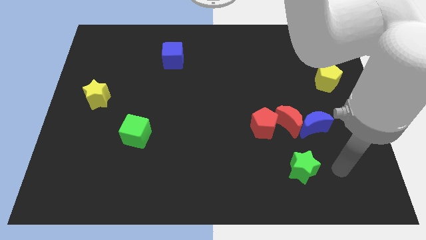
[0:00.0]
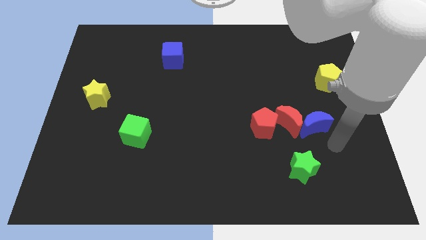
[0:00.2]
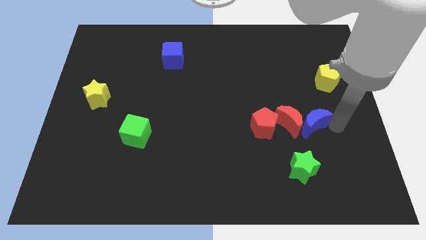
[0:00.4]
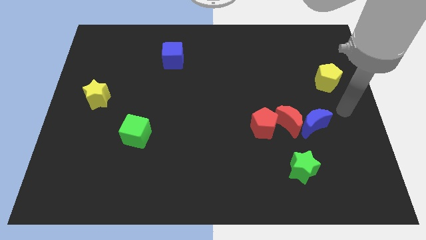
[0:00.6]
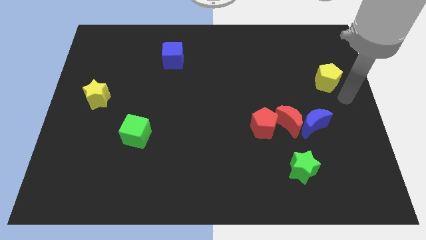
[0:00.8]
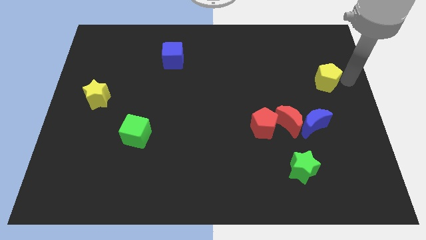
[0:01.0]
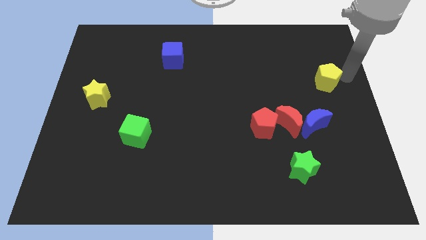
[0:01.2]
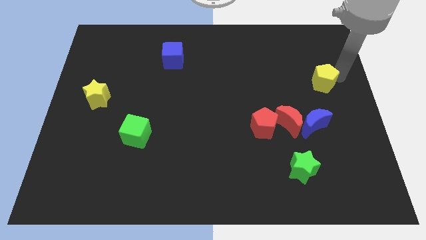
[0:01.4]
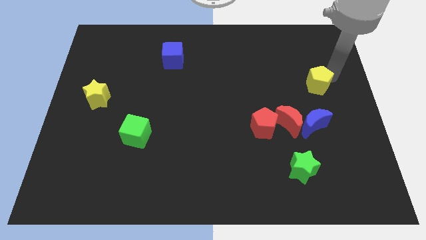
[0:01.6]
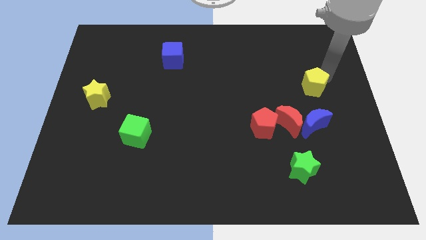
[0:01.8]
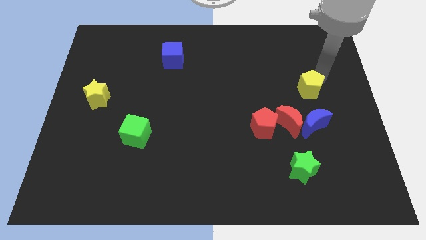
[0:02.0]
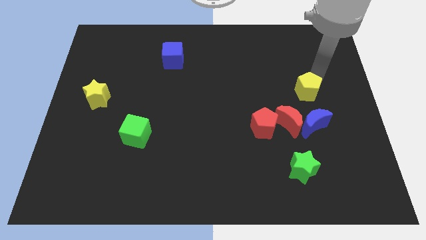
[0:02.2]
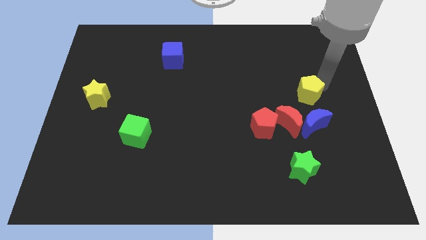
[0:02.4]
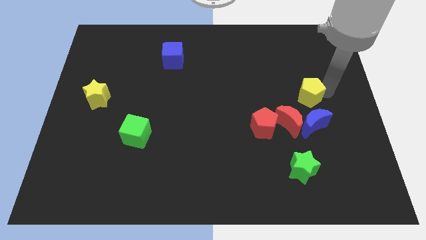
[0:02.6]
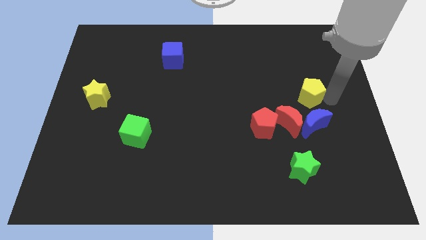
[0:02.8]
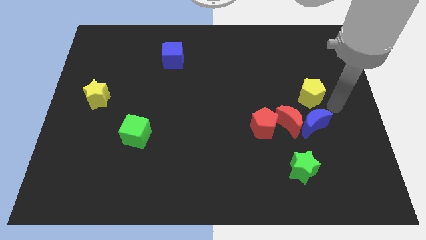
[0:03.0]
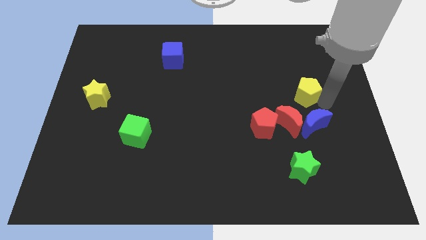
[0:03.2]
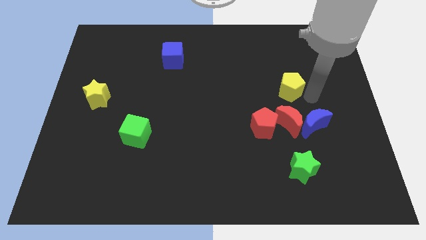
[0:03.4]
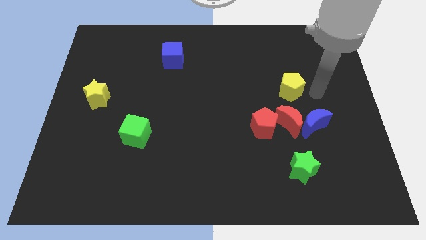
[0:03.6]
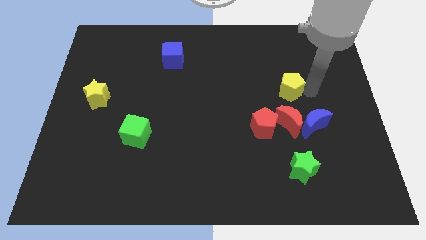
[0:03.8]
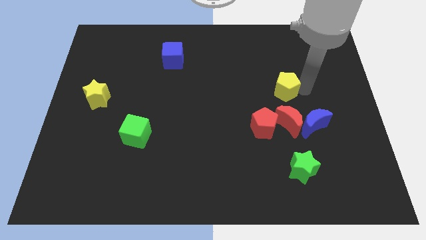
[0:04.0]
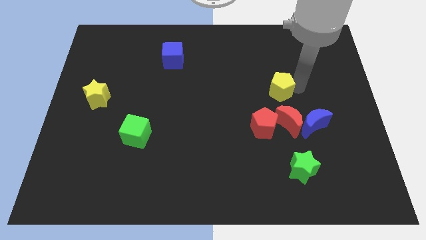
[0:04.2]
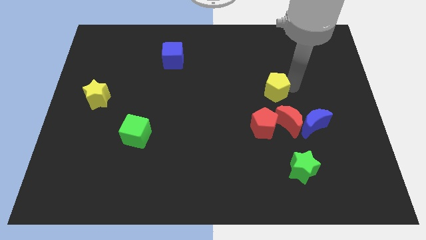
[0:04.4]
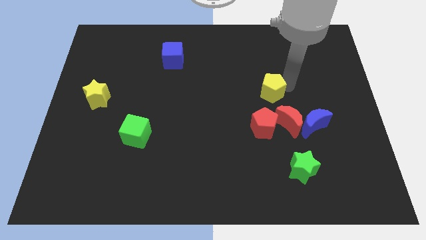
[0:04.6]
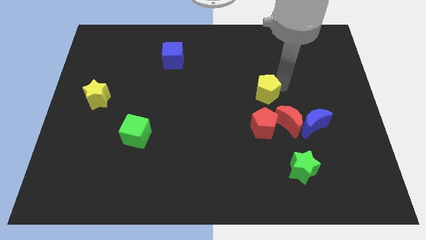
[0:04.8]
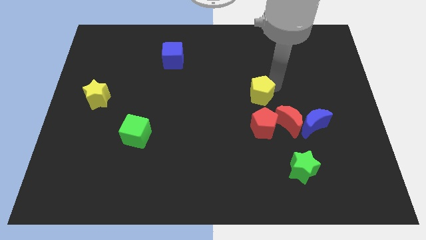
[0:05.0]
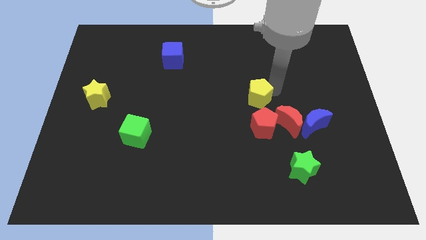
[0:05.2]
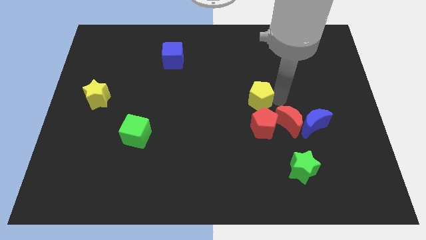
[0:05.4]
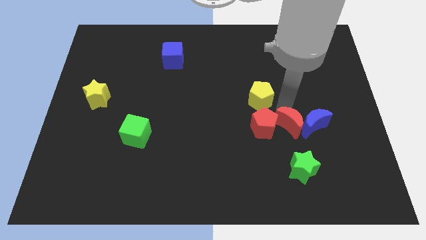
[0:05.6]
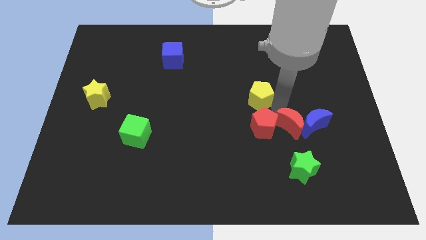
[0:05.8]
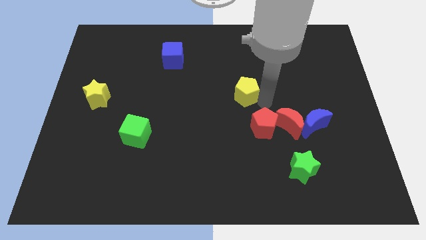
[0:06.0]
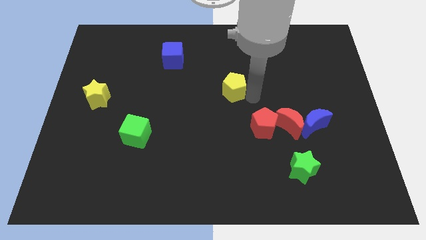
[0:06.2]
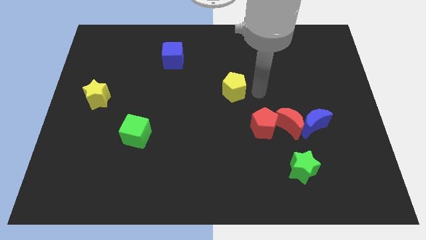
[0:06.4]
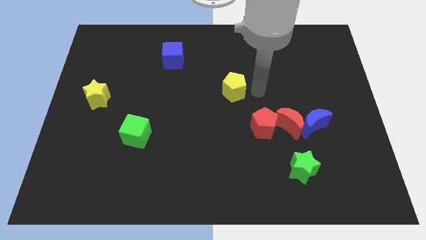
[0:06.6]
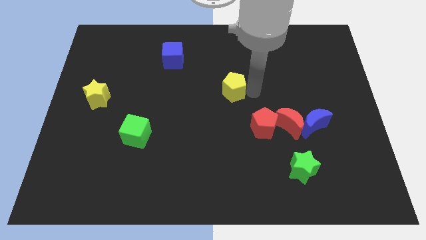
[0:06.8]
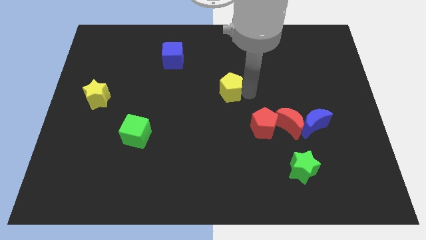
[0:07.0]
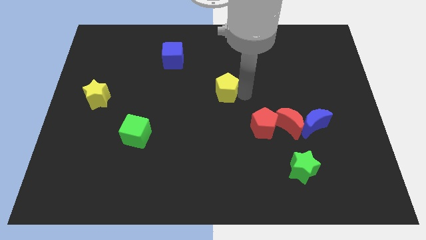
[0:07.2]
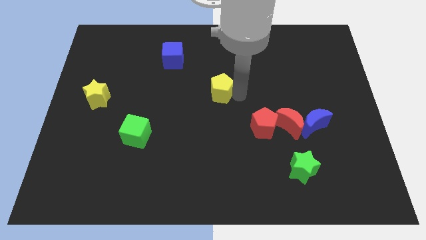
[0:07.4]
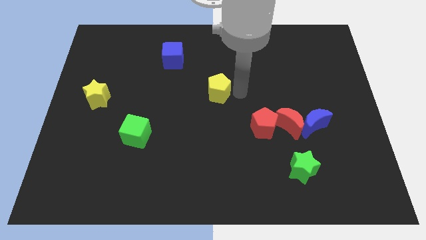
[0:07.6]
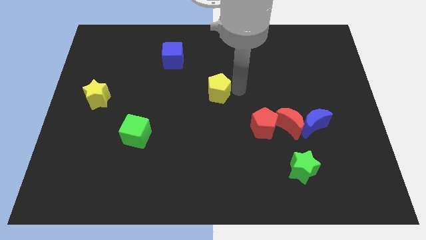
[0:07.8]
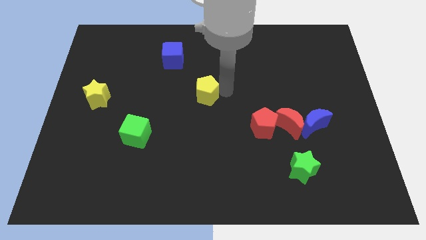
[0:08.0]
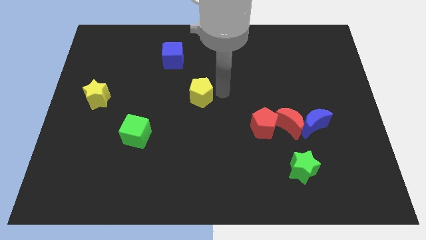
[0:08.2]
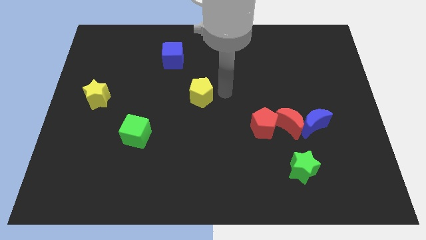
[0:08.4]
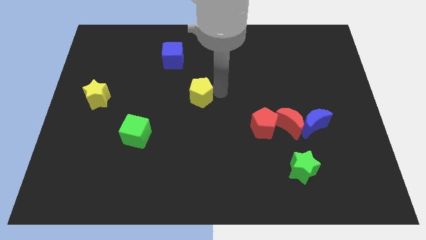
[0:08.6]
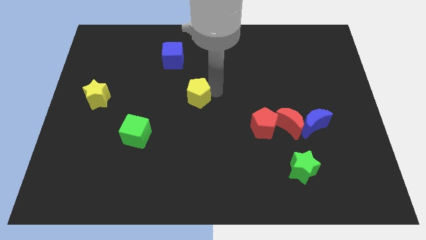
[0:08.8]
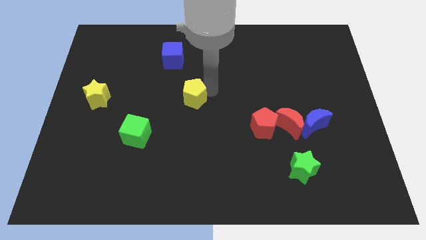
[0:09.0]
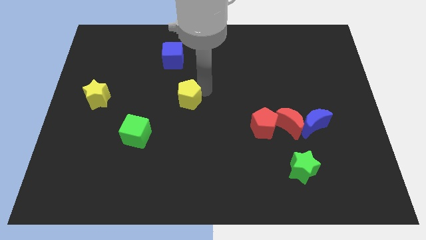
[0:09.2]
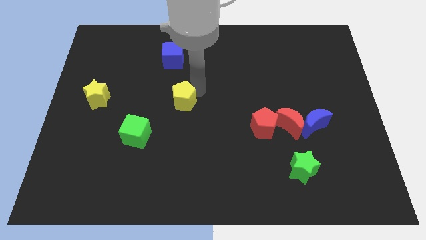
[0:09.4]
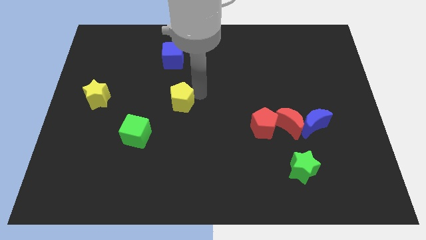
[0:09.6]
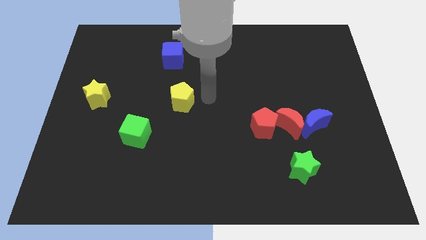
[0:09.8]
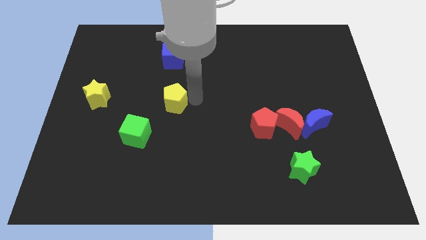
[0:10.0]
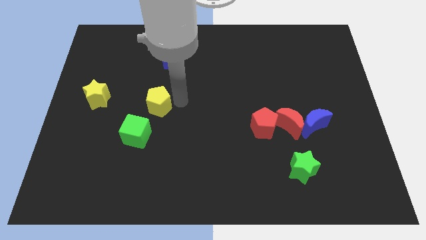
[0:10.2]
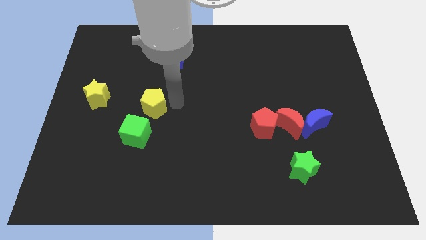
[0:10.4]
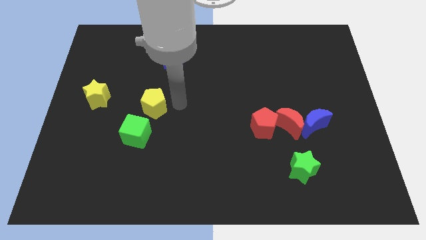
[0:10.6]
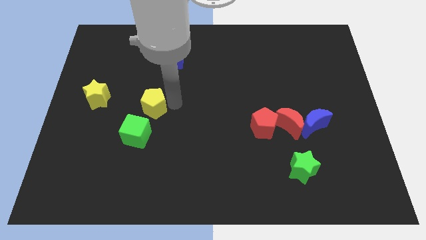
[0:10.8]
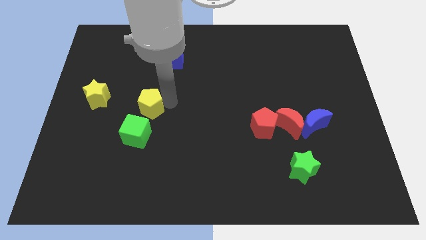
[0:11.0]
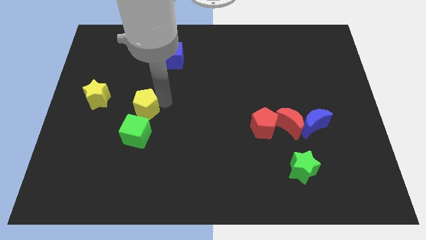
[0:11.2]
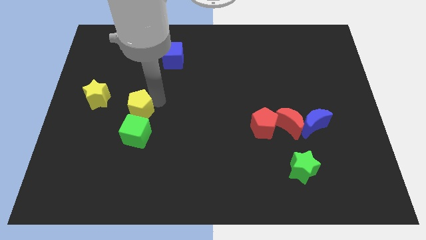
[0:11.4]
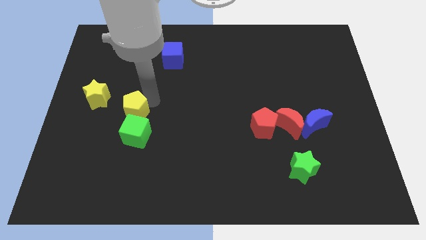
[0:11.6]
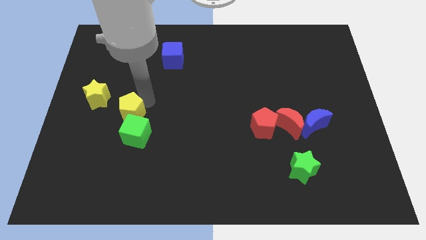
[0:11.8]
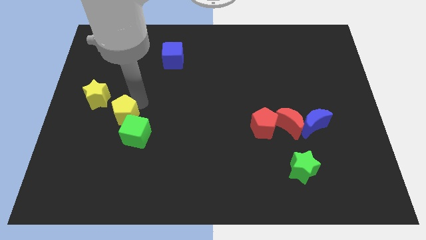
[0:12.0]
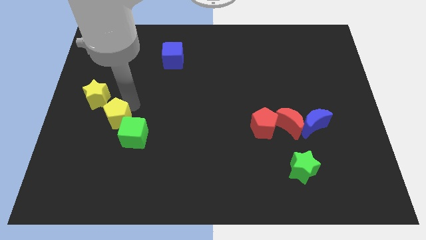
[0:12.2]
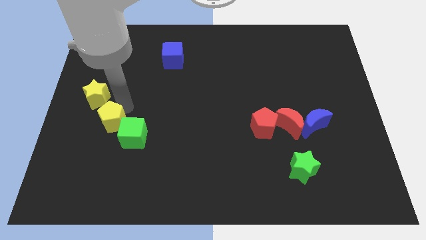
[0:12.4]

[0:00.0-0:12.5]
put the yellow pentagon to the bottom side of the yellow star
